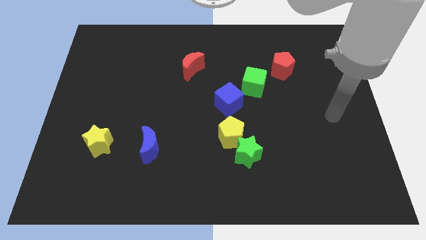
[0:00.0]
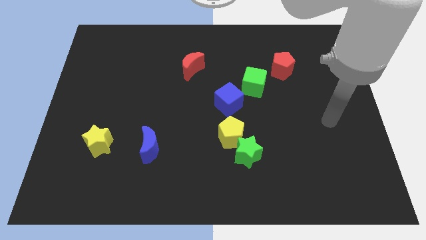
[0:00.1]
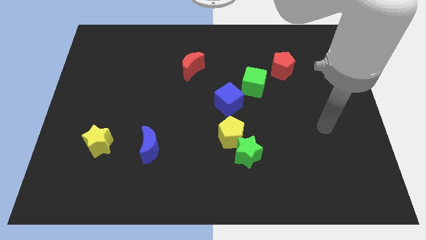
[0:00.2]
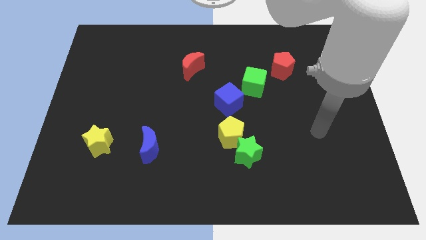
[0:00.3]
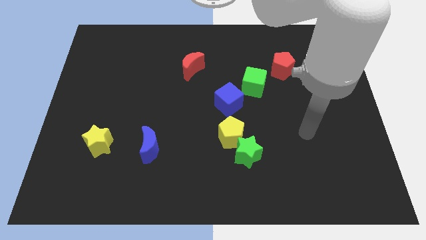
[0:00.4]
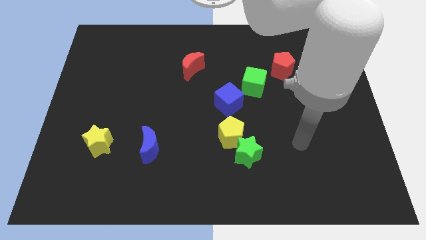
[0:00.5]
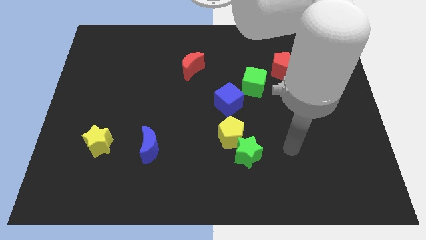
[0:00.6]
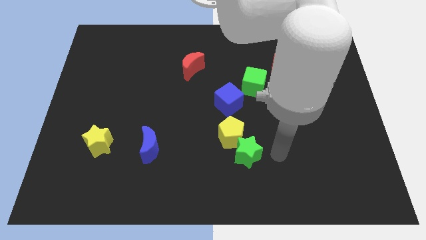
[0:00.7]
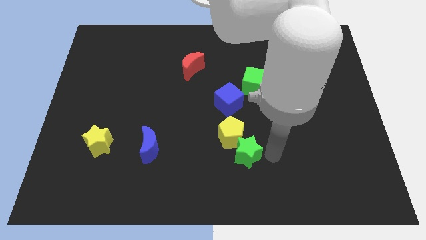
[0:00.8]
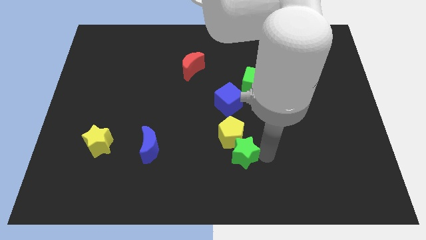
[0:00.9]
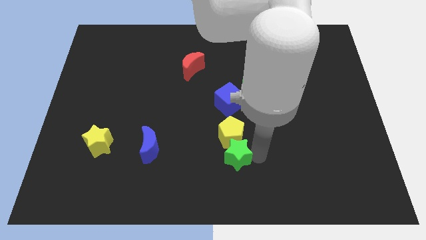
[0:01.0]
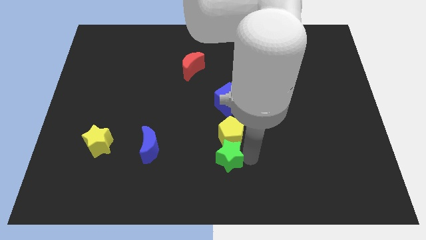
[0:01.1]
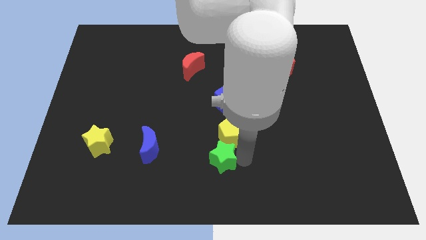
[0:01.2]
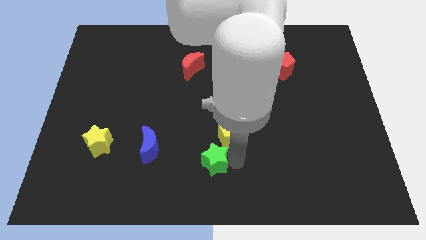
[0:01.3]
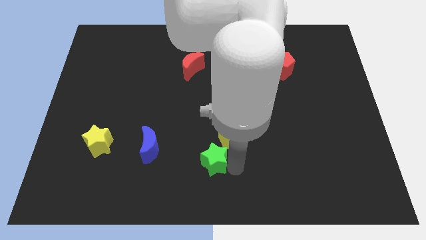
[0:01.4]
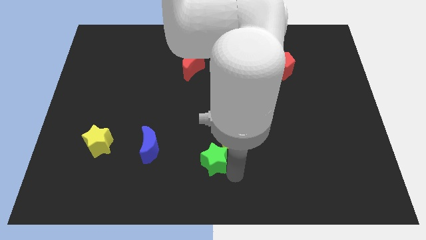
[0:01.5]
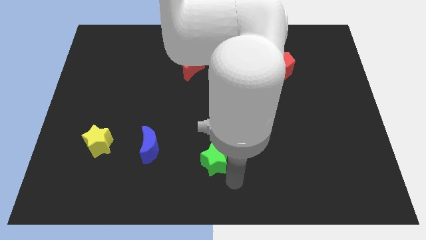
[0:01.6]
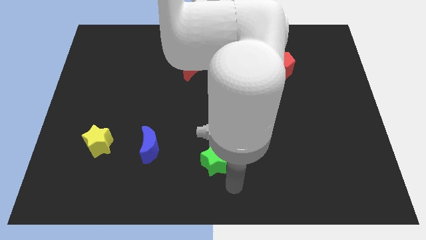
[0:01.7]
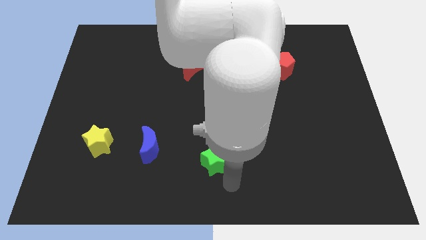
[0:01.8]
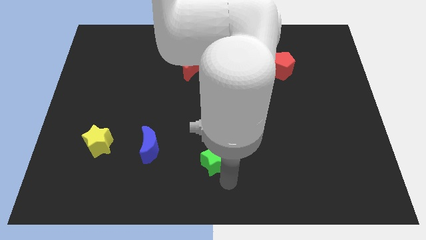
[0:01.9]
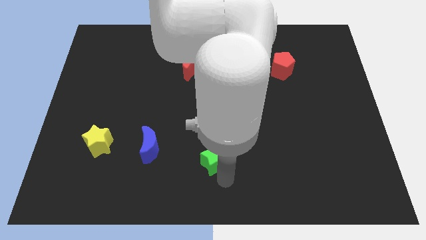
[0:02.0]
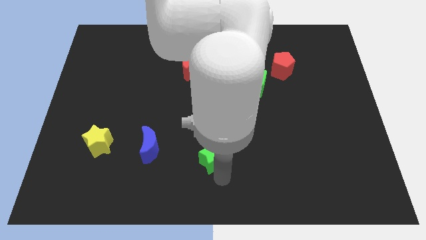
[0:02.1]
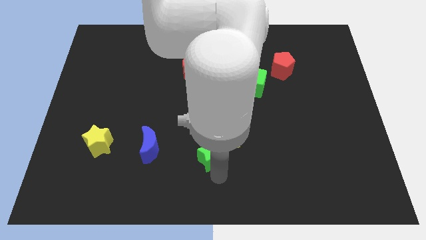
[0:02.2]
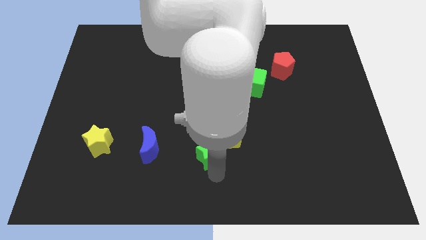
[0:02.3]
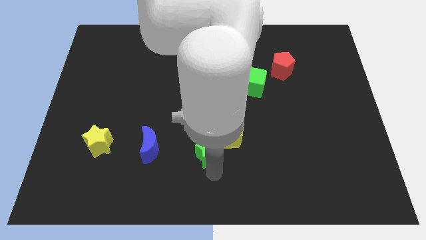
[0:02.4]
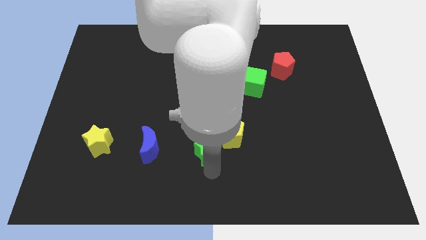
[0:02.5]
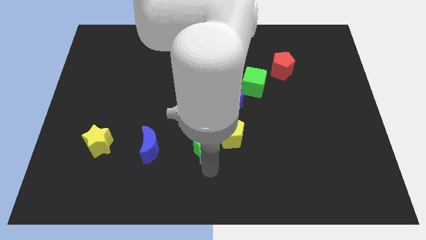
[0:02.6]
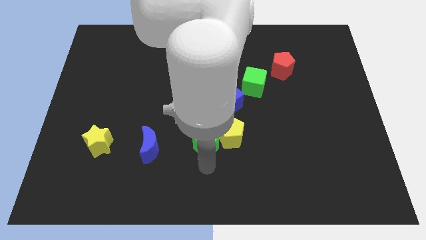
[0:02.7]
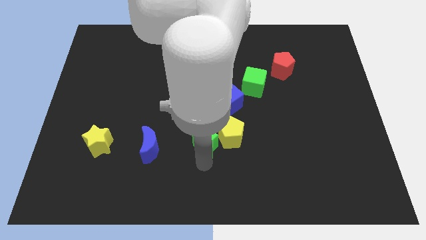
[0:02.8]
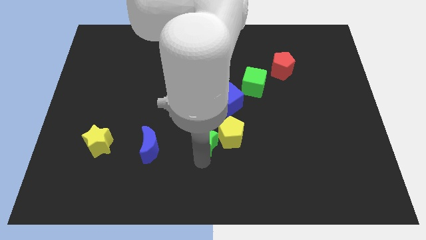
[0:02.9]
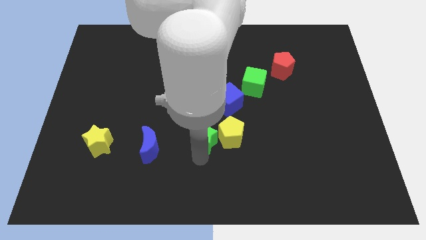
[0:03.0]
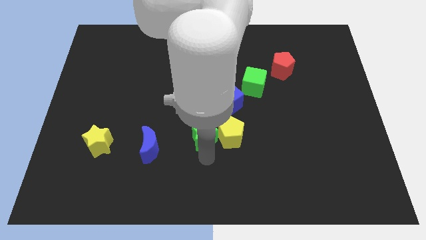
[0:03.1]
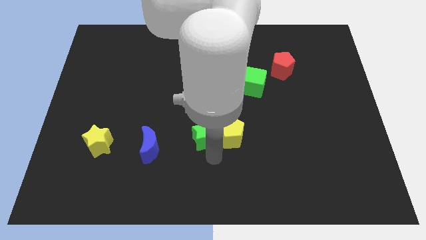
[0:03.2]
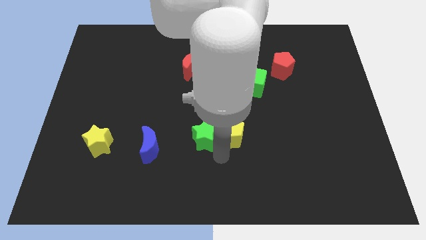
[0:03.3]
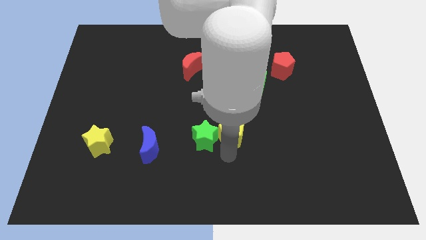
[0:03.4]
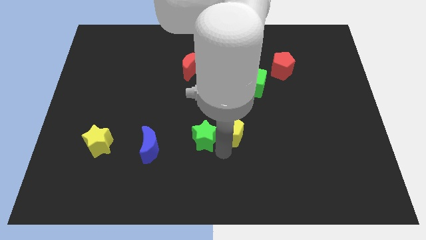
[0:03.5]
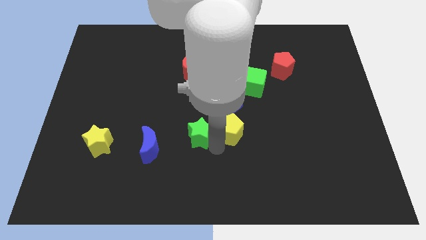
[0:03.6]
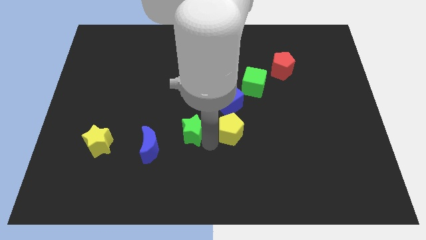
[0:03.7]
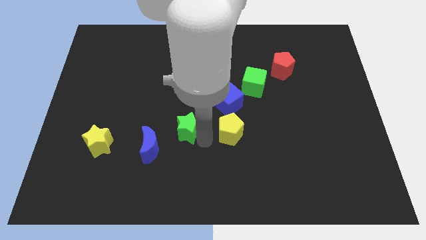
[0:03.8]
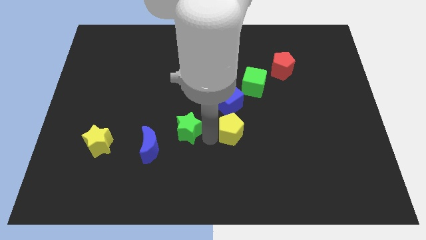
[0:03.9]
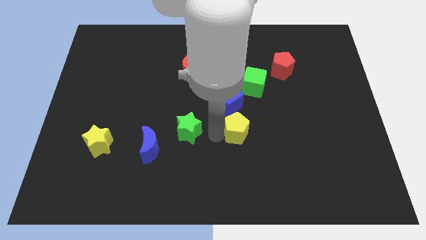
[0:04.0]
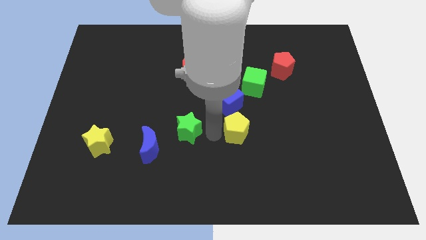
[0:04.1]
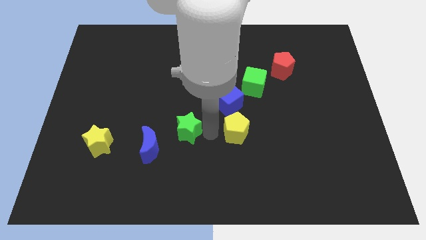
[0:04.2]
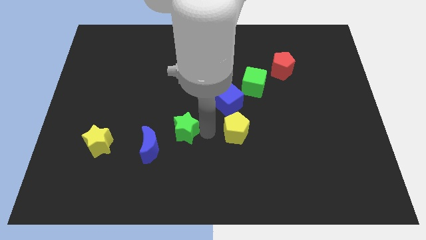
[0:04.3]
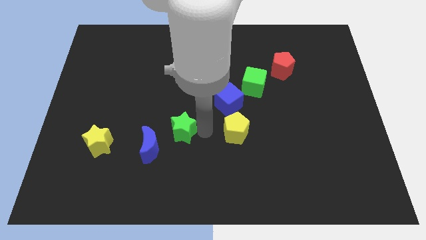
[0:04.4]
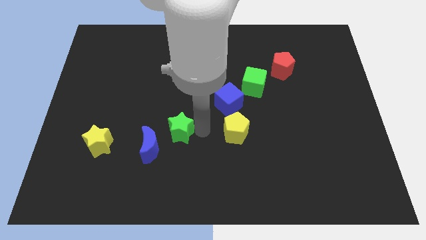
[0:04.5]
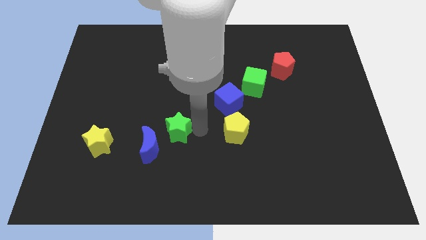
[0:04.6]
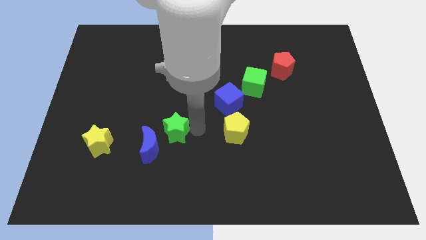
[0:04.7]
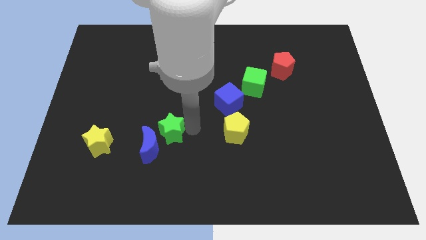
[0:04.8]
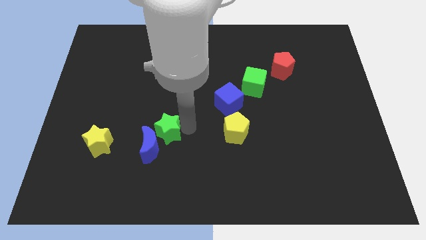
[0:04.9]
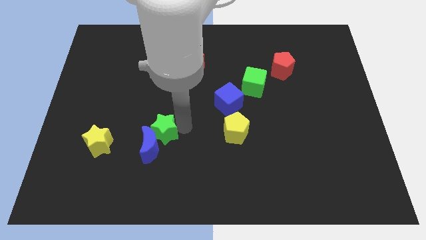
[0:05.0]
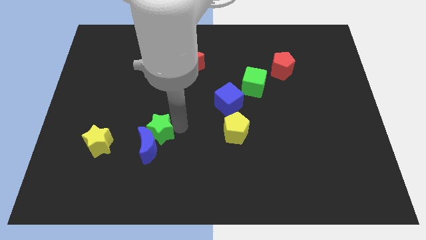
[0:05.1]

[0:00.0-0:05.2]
push the green star diagonally up and to the left of the blue moon

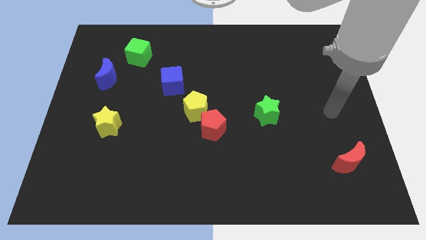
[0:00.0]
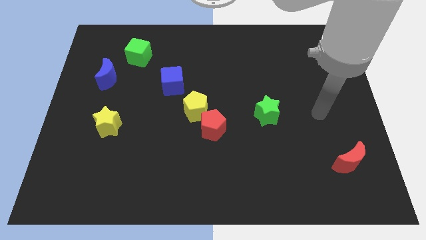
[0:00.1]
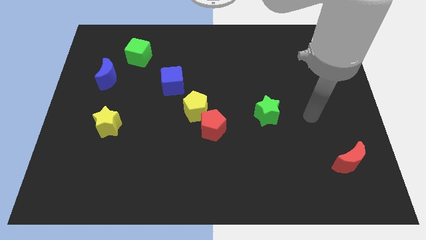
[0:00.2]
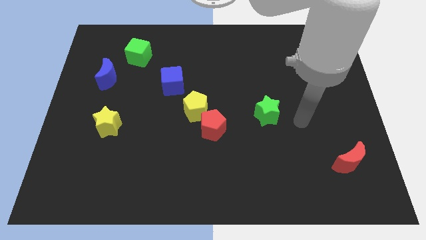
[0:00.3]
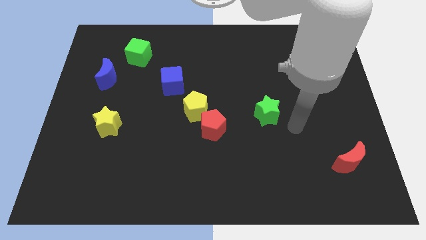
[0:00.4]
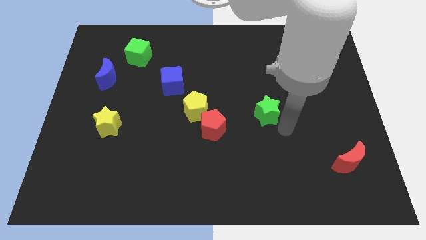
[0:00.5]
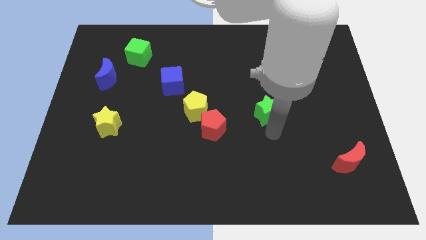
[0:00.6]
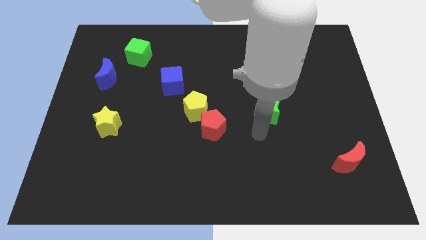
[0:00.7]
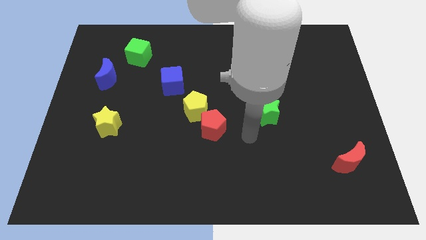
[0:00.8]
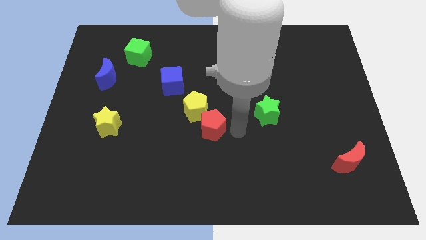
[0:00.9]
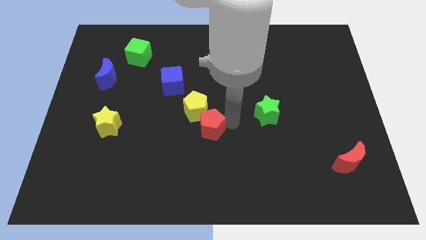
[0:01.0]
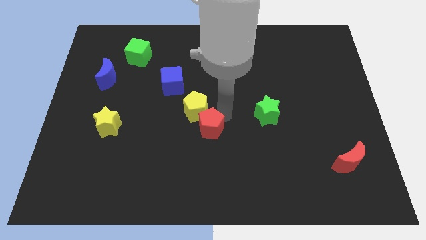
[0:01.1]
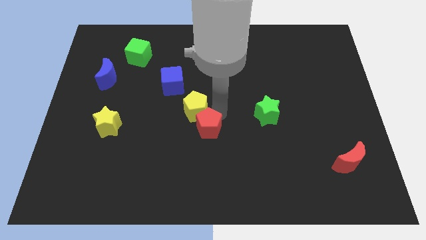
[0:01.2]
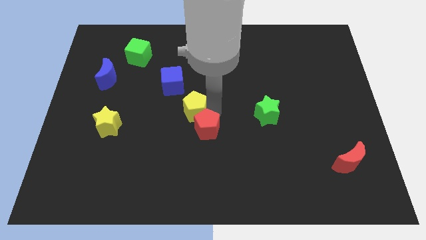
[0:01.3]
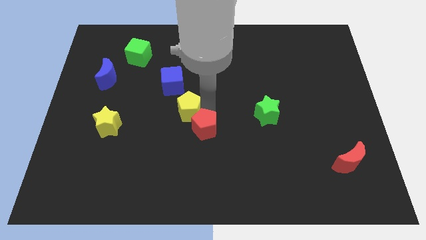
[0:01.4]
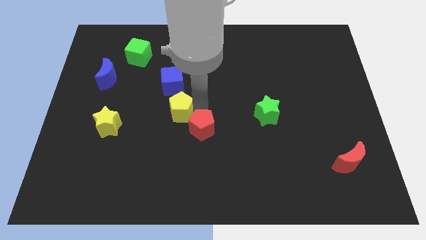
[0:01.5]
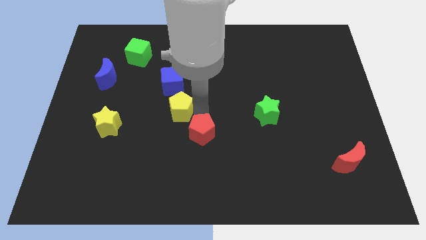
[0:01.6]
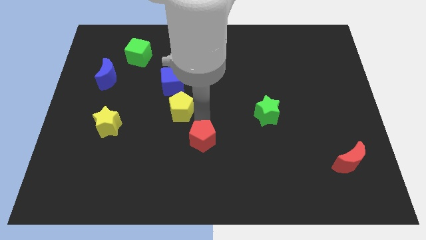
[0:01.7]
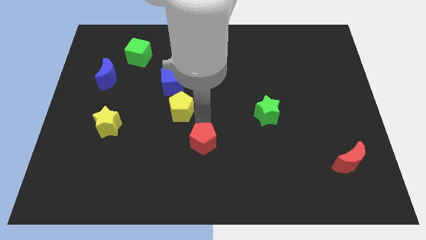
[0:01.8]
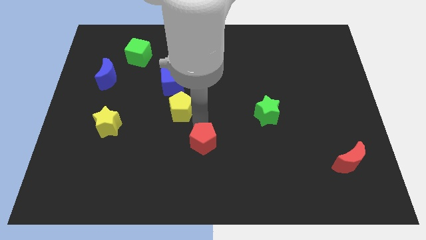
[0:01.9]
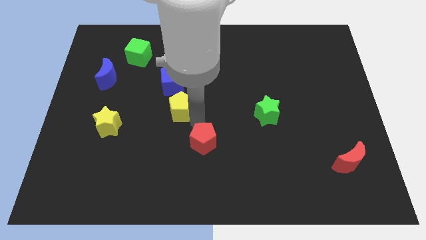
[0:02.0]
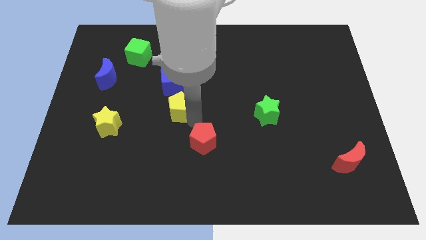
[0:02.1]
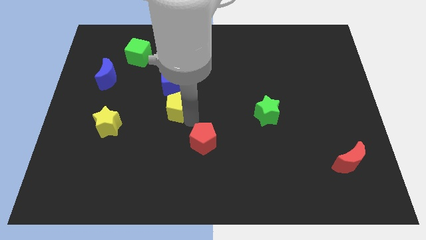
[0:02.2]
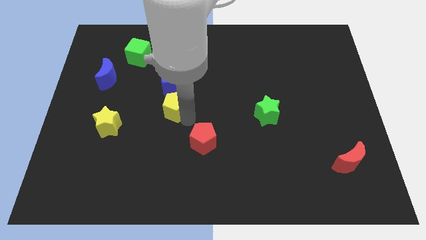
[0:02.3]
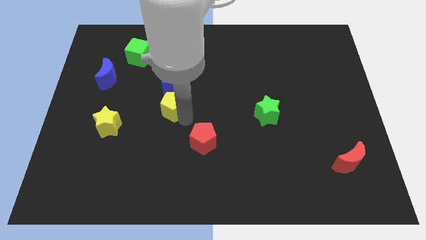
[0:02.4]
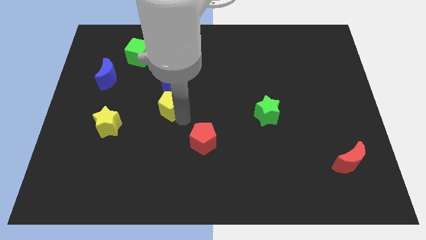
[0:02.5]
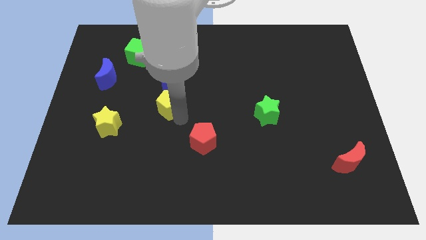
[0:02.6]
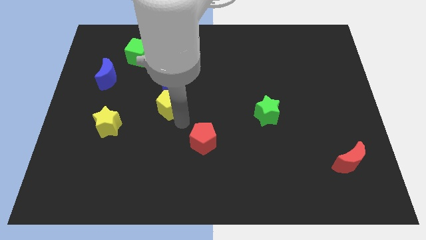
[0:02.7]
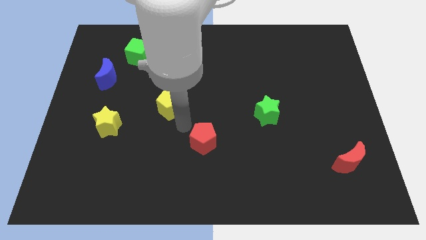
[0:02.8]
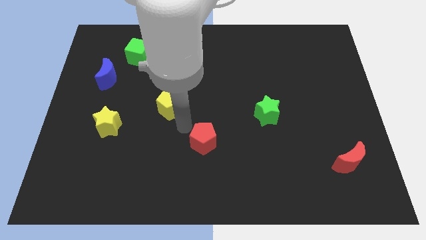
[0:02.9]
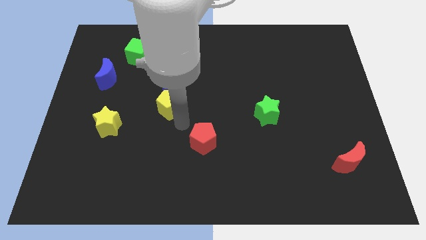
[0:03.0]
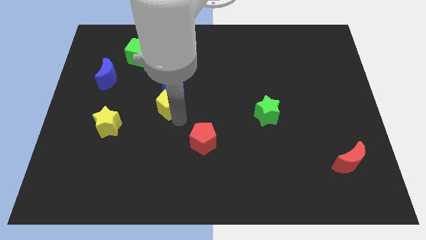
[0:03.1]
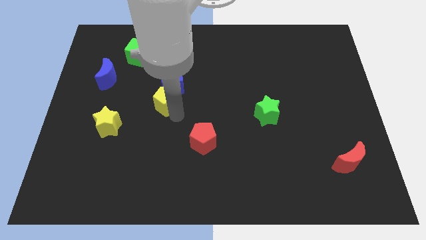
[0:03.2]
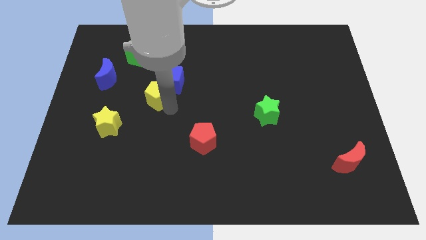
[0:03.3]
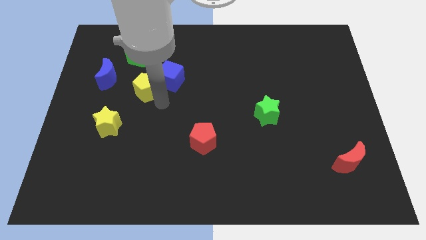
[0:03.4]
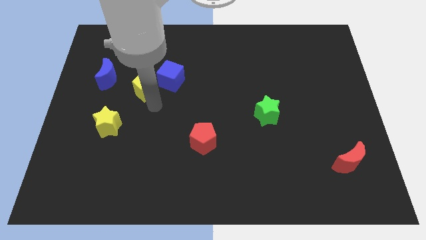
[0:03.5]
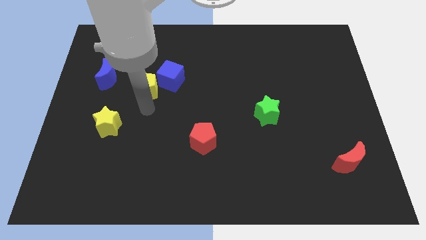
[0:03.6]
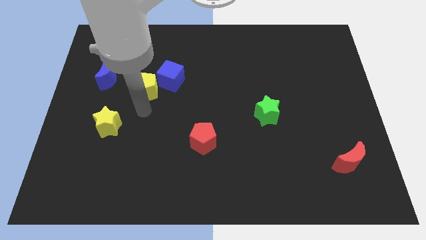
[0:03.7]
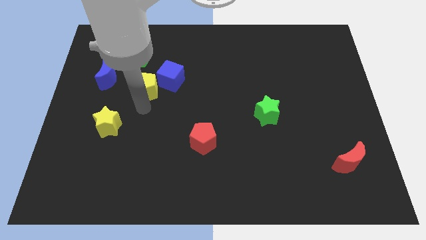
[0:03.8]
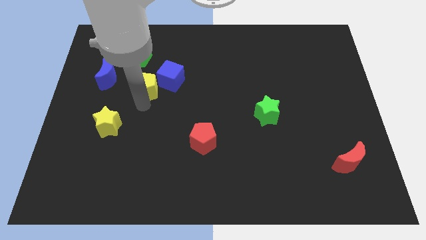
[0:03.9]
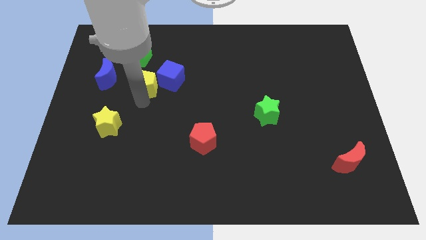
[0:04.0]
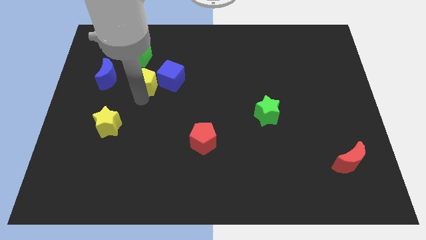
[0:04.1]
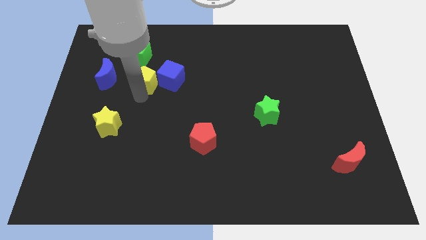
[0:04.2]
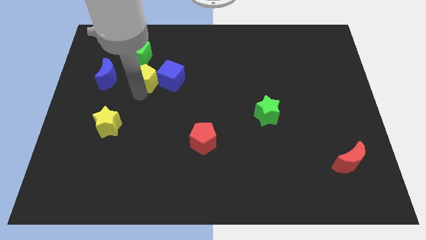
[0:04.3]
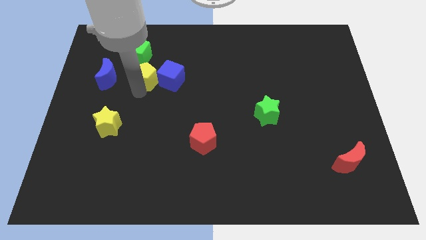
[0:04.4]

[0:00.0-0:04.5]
move the yellow pentagon to the top left of the blue cube
